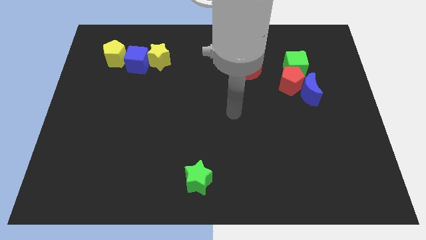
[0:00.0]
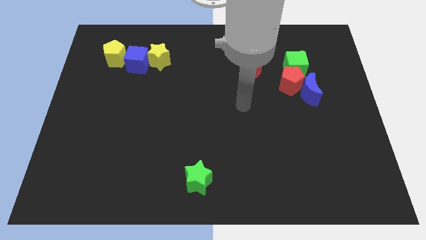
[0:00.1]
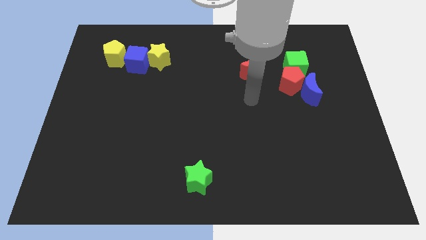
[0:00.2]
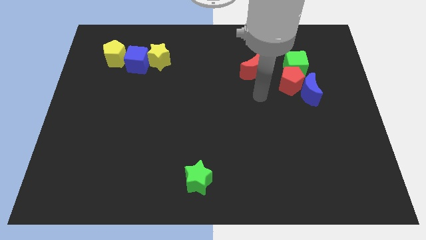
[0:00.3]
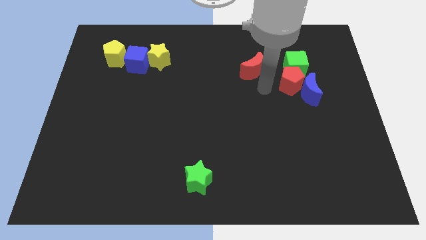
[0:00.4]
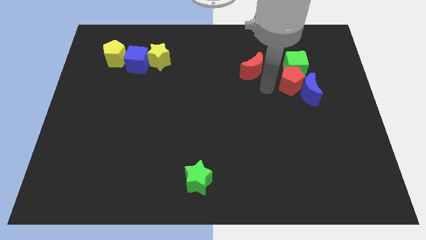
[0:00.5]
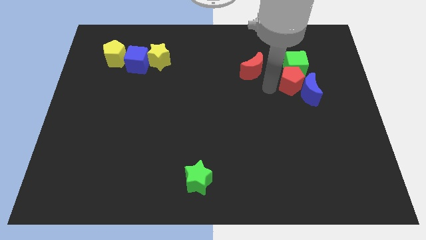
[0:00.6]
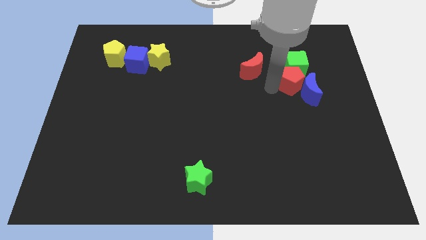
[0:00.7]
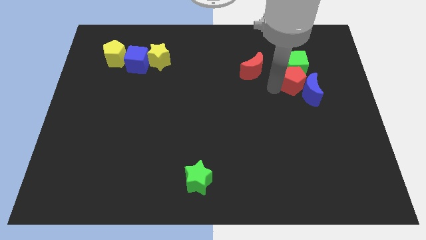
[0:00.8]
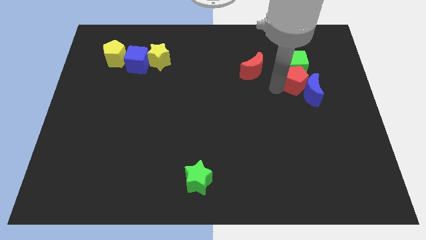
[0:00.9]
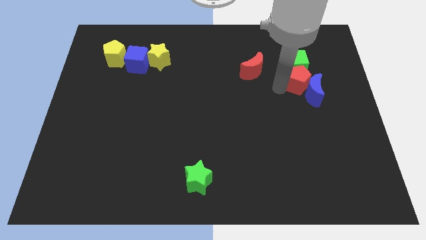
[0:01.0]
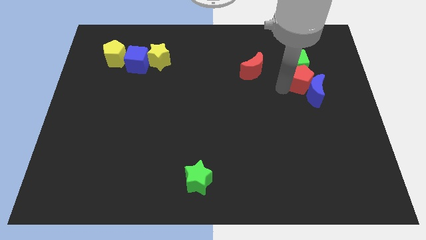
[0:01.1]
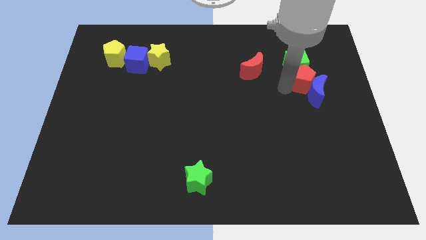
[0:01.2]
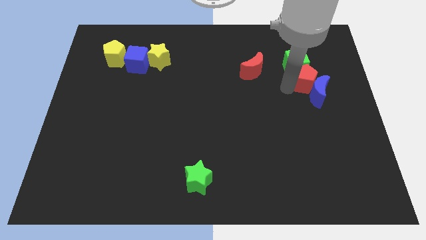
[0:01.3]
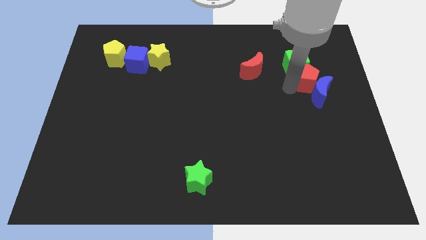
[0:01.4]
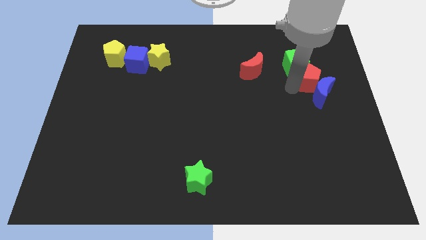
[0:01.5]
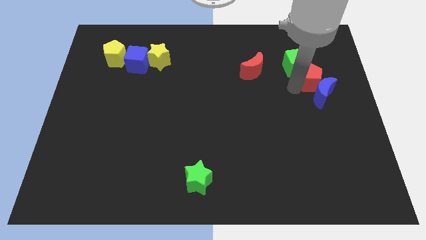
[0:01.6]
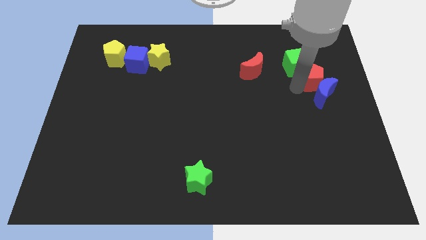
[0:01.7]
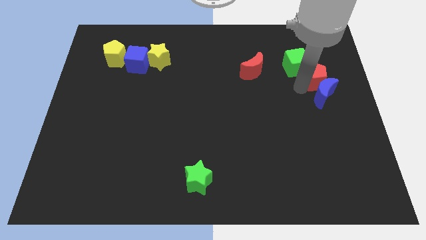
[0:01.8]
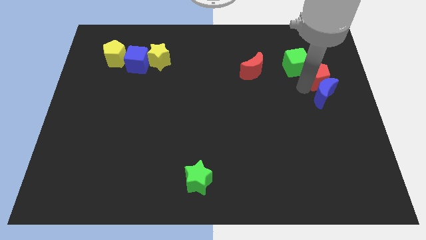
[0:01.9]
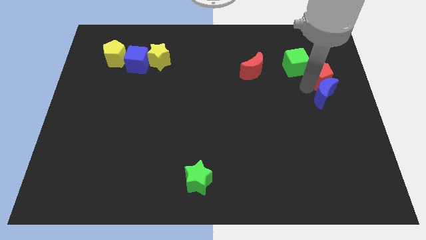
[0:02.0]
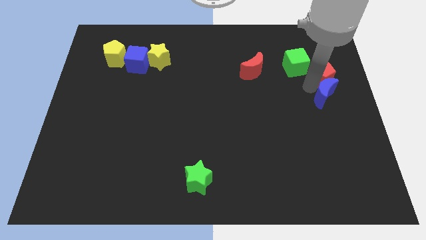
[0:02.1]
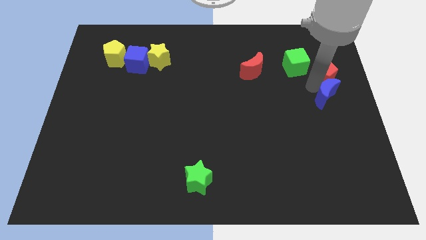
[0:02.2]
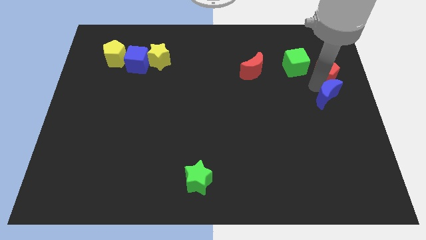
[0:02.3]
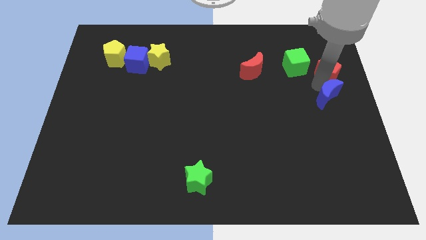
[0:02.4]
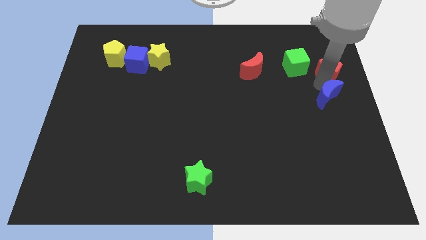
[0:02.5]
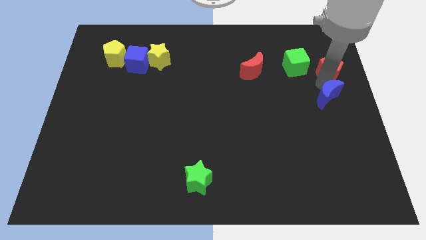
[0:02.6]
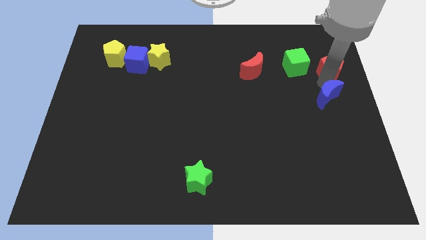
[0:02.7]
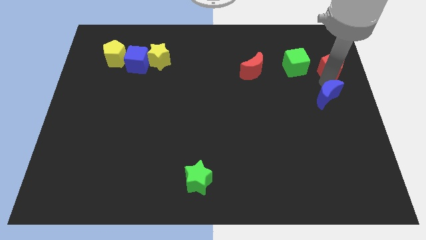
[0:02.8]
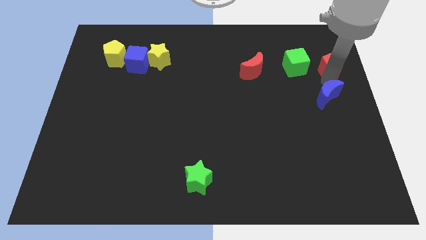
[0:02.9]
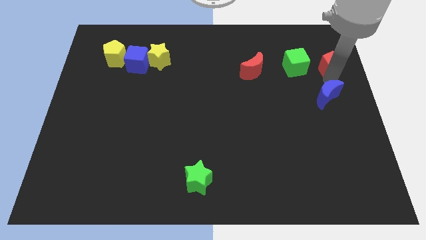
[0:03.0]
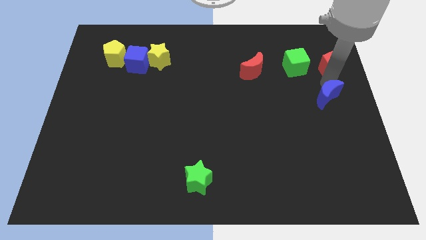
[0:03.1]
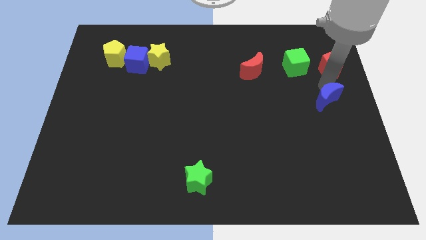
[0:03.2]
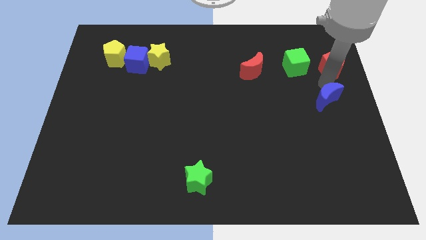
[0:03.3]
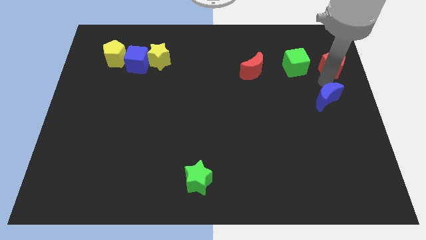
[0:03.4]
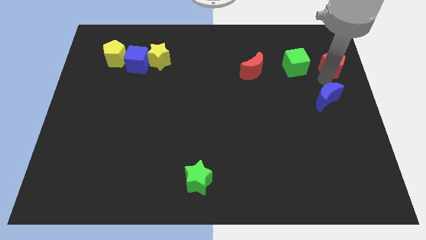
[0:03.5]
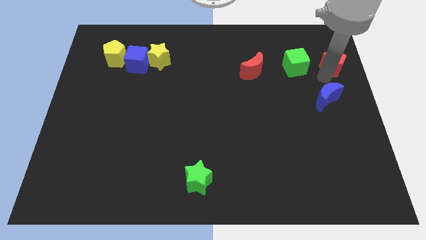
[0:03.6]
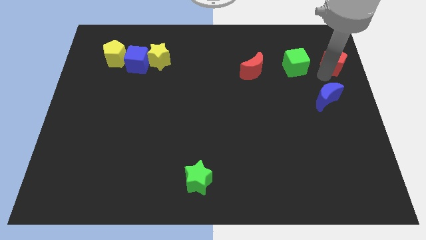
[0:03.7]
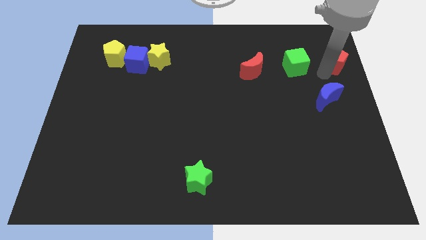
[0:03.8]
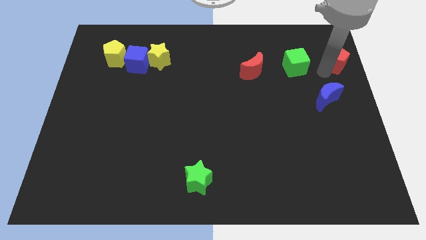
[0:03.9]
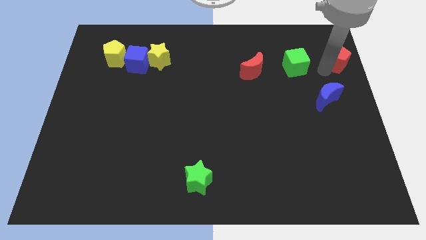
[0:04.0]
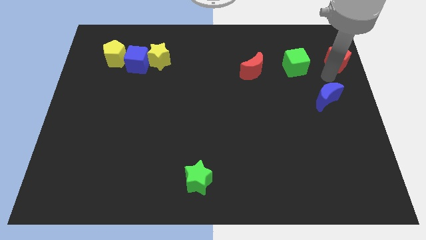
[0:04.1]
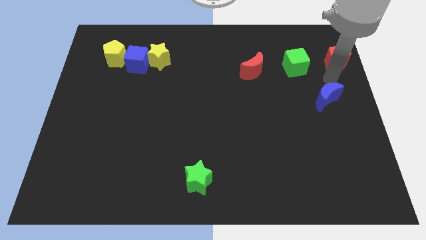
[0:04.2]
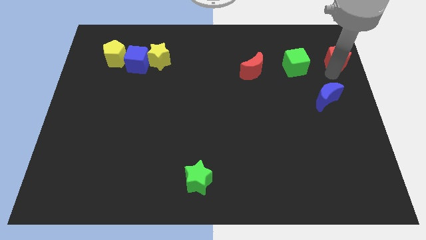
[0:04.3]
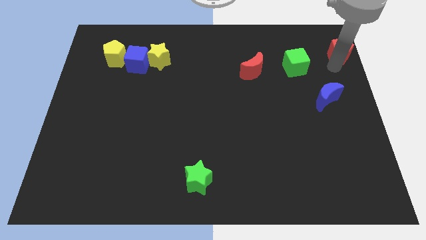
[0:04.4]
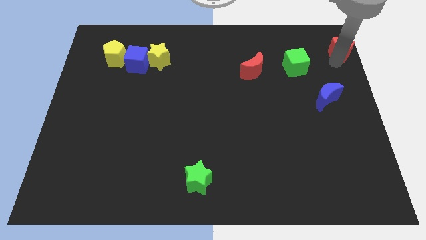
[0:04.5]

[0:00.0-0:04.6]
push the red pentagon to the top right corner

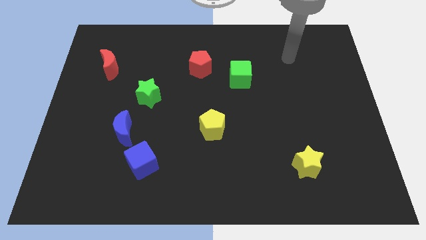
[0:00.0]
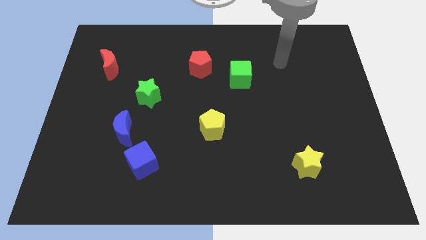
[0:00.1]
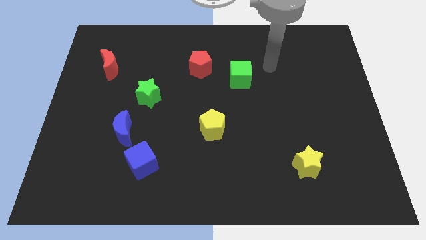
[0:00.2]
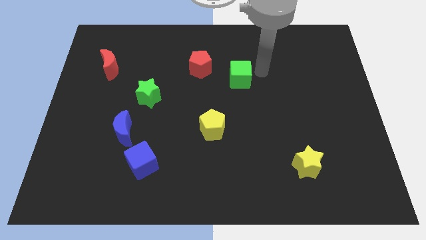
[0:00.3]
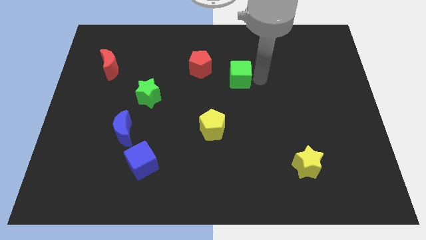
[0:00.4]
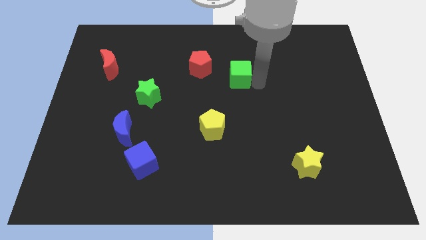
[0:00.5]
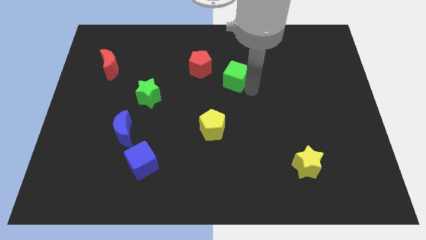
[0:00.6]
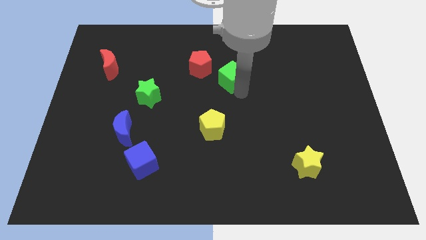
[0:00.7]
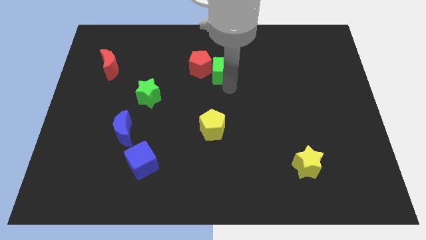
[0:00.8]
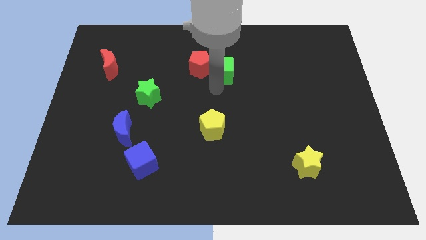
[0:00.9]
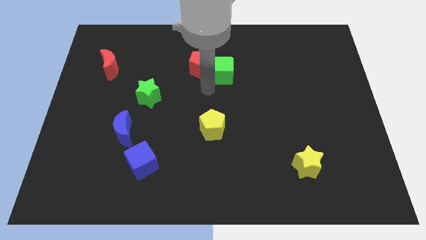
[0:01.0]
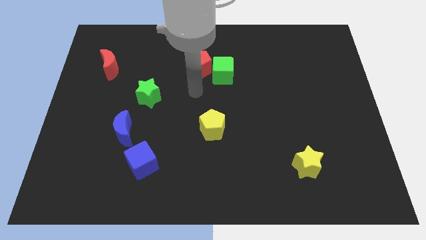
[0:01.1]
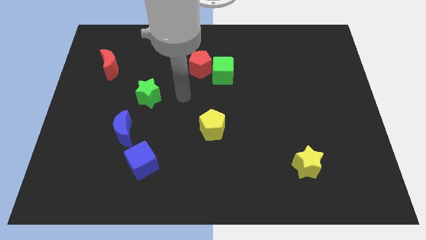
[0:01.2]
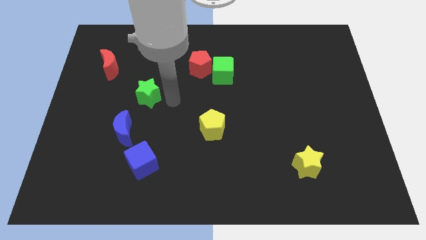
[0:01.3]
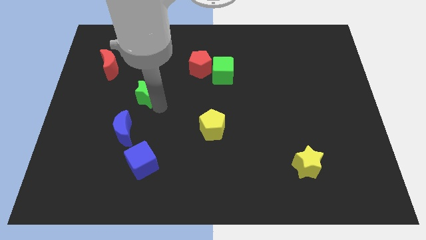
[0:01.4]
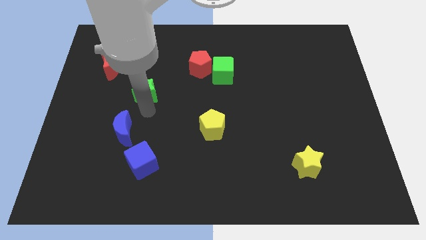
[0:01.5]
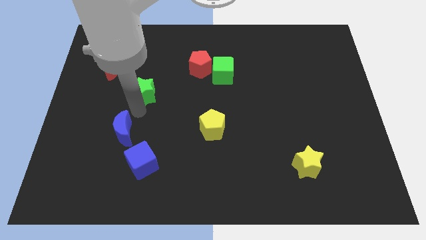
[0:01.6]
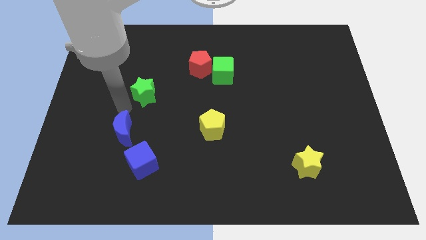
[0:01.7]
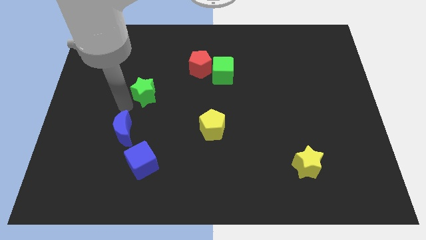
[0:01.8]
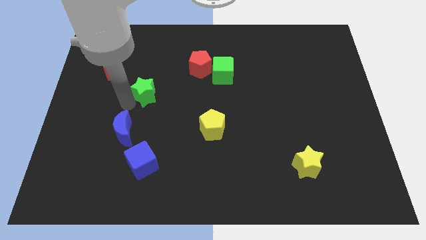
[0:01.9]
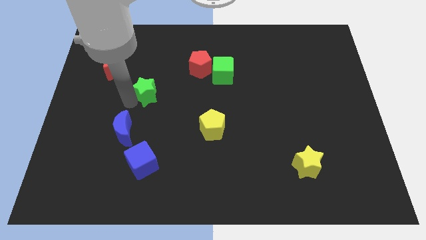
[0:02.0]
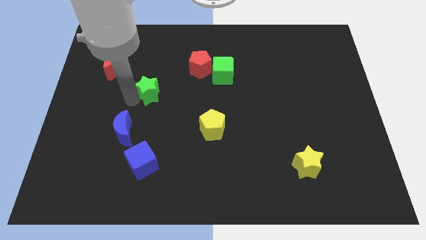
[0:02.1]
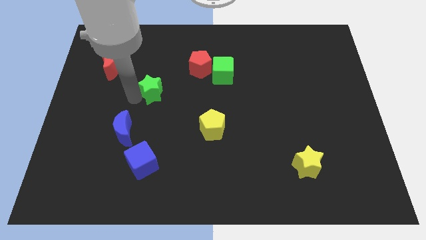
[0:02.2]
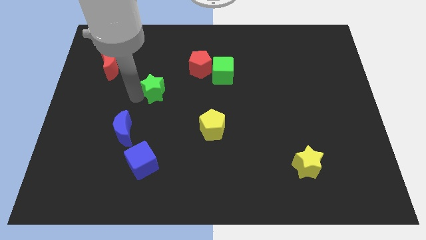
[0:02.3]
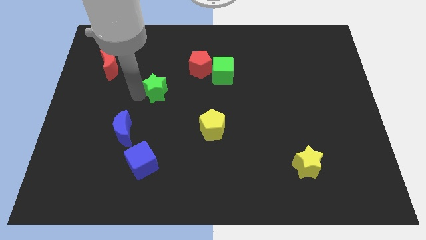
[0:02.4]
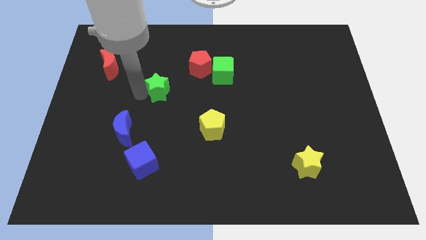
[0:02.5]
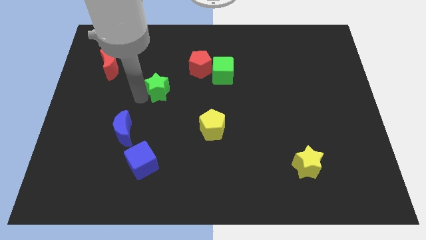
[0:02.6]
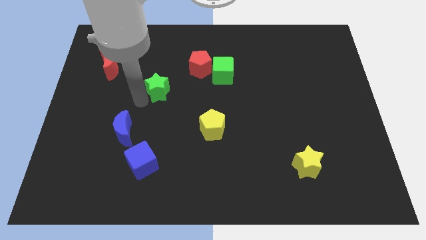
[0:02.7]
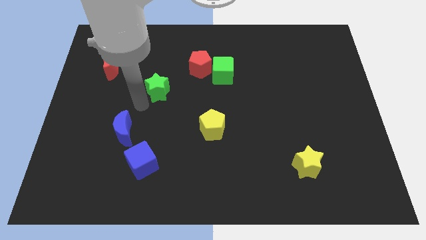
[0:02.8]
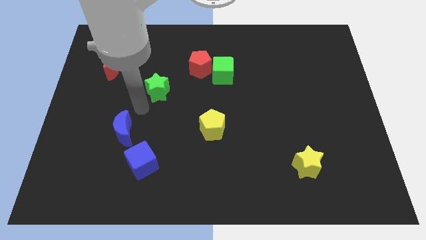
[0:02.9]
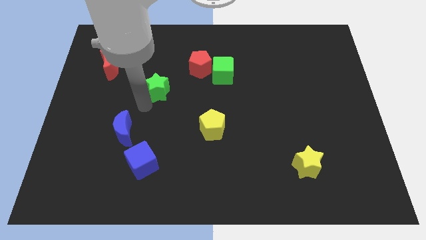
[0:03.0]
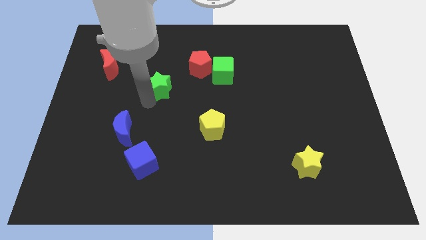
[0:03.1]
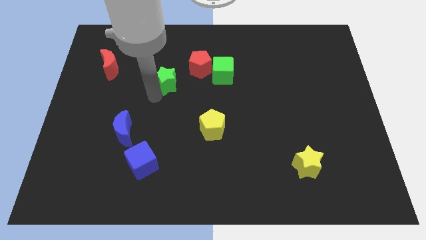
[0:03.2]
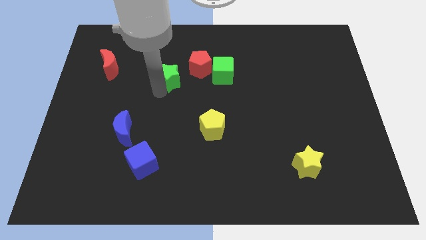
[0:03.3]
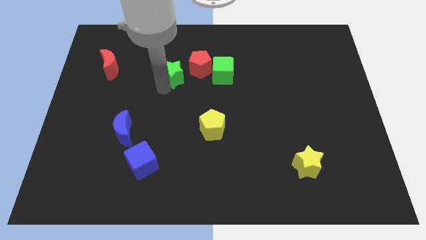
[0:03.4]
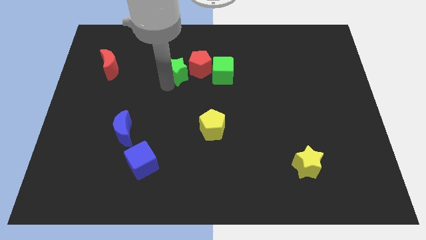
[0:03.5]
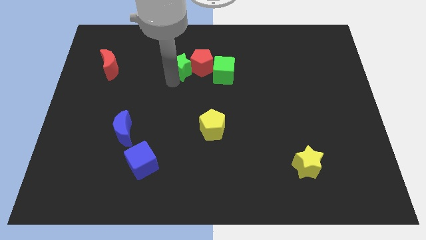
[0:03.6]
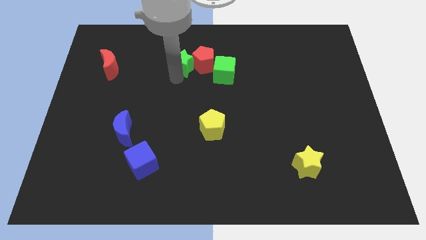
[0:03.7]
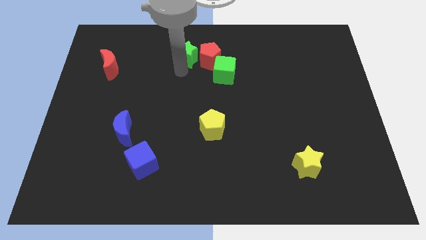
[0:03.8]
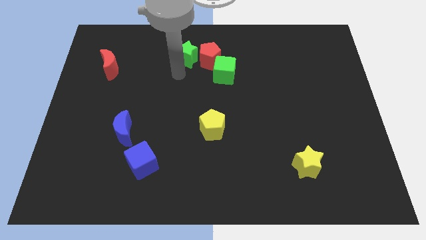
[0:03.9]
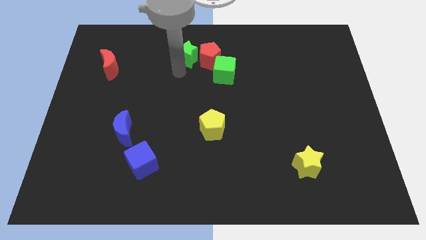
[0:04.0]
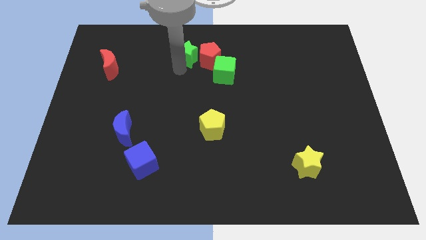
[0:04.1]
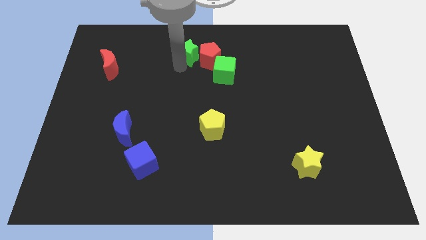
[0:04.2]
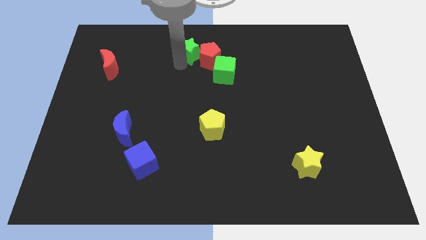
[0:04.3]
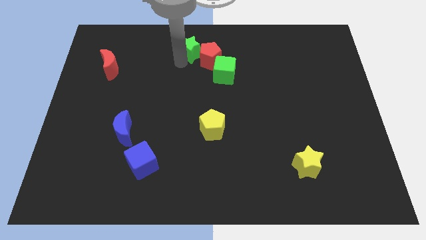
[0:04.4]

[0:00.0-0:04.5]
push the green star to the towards your base
